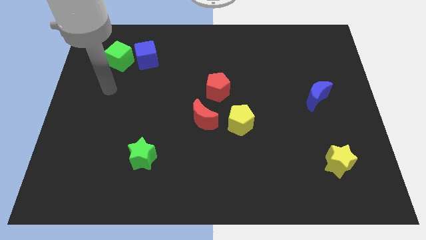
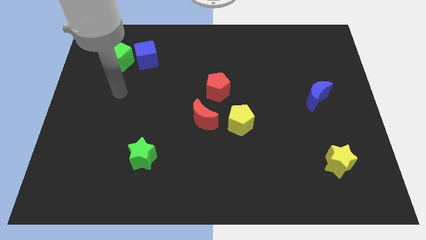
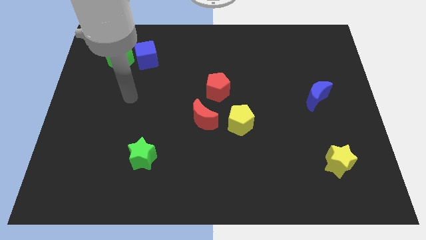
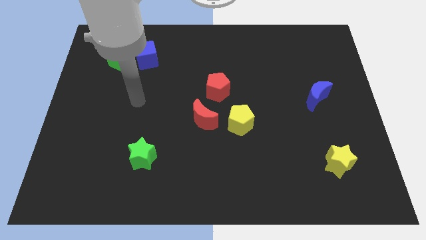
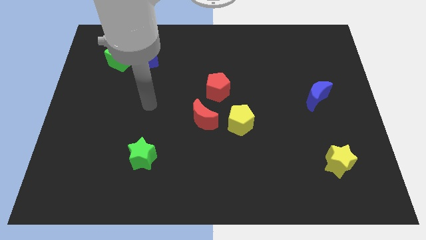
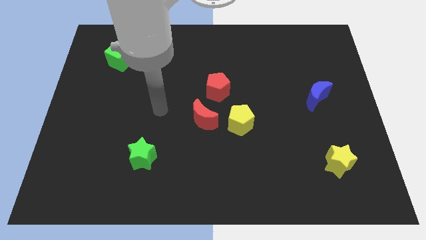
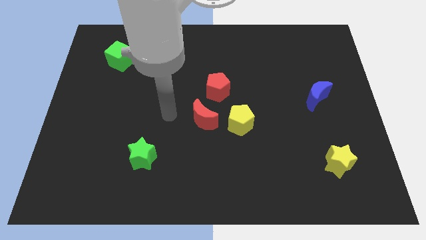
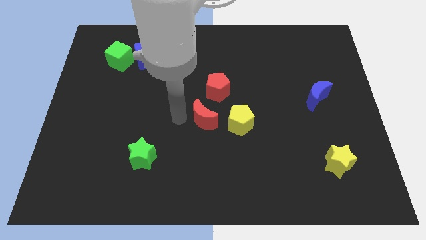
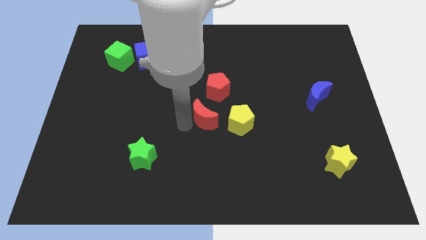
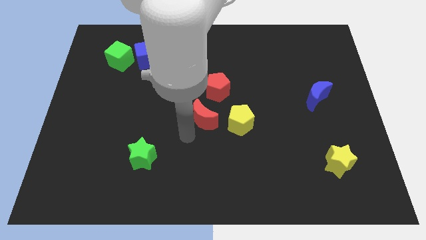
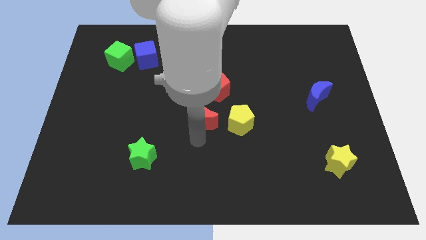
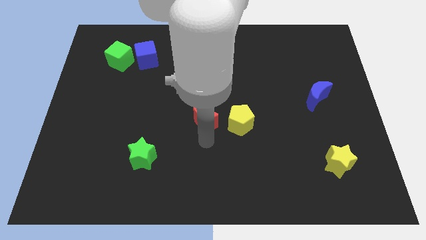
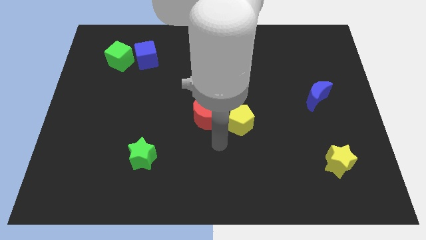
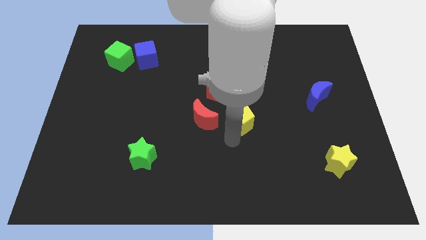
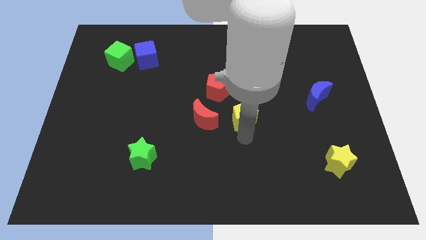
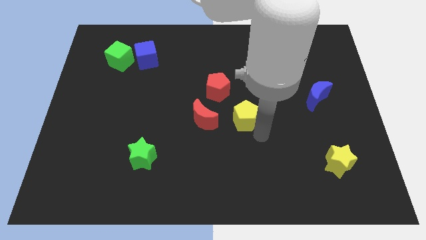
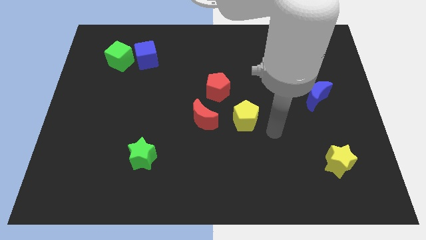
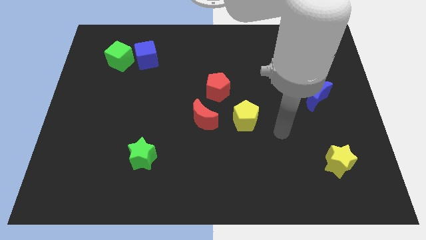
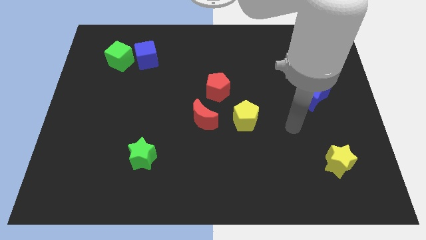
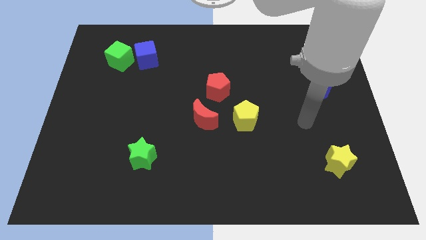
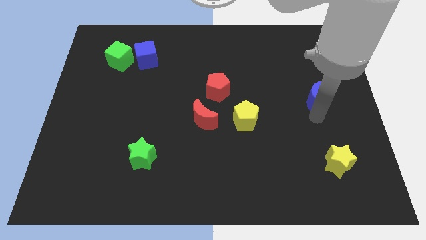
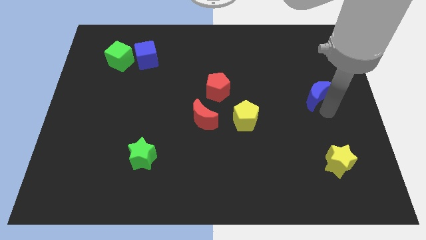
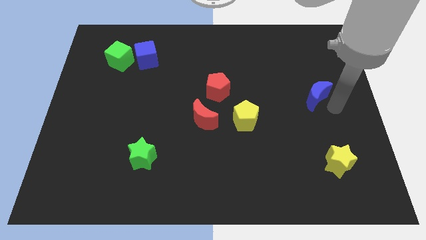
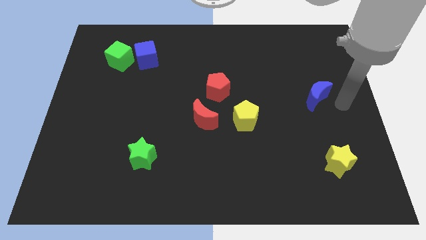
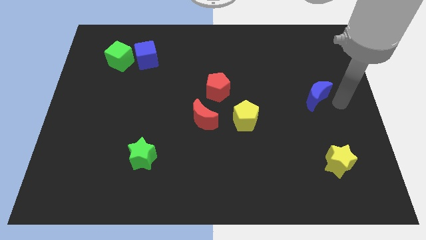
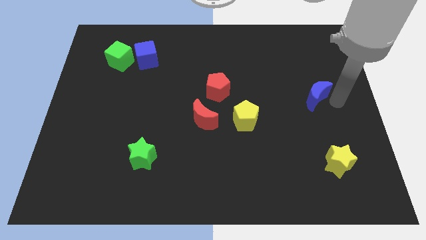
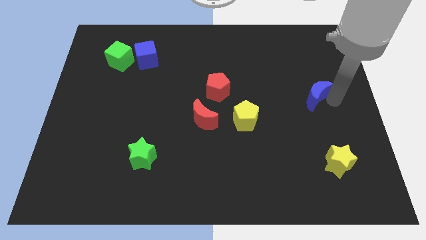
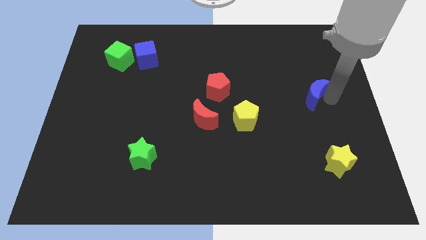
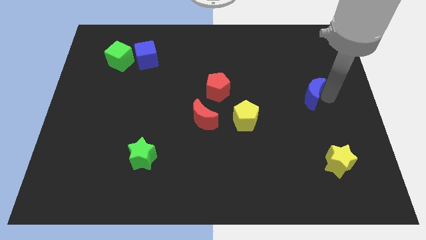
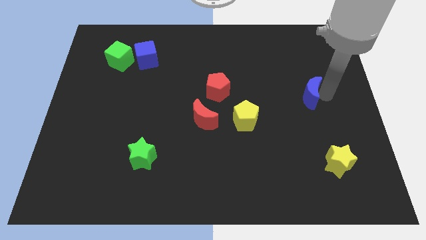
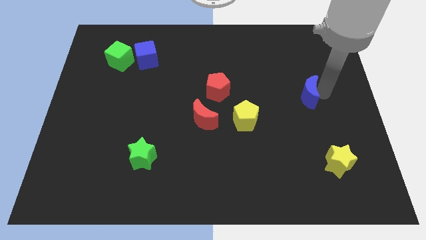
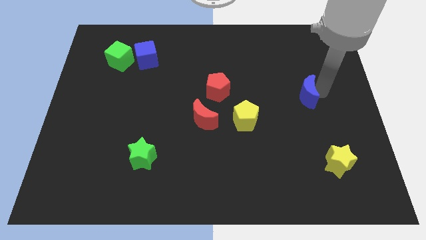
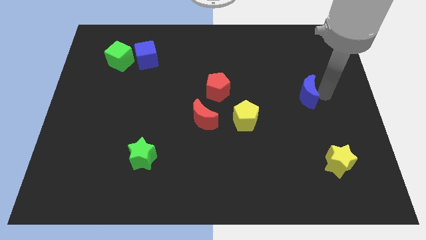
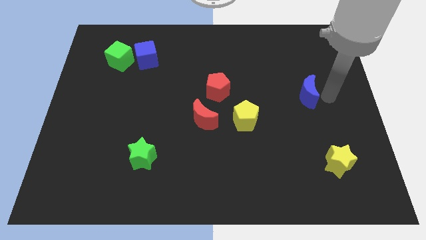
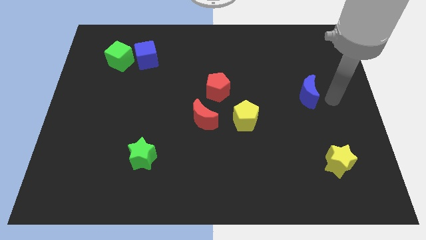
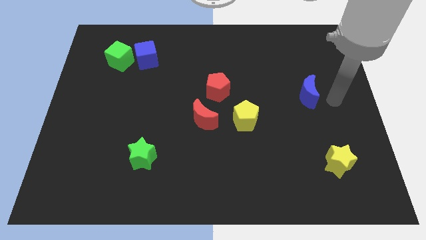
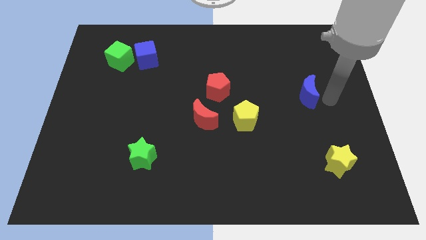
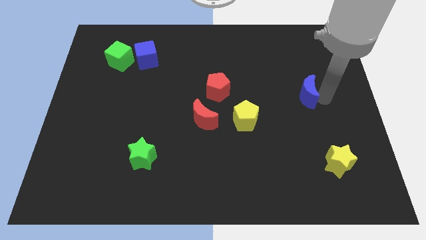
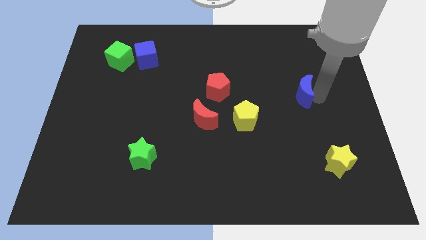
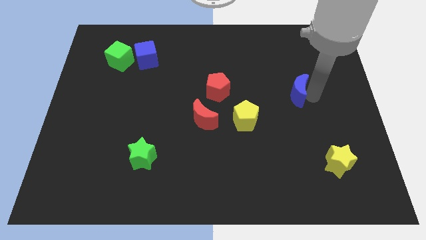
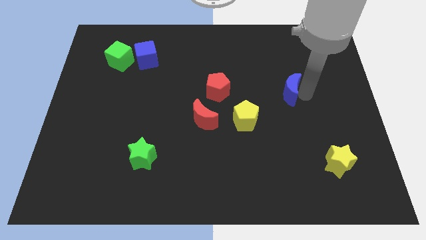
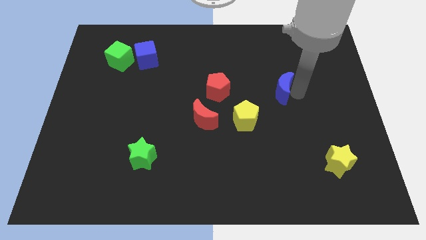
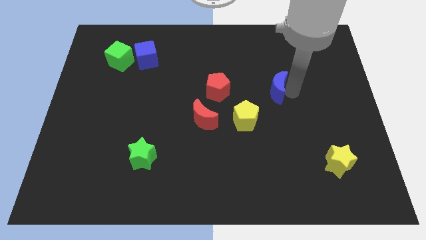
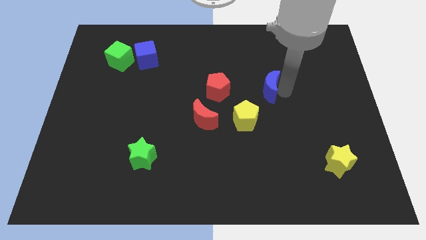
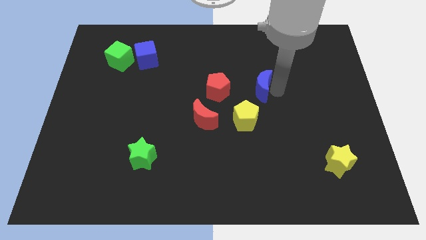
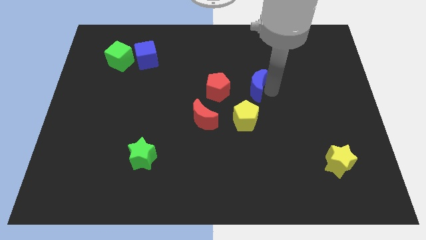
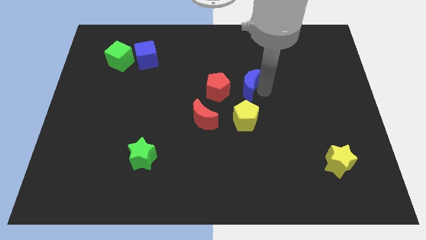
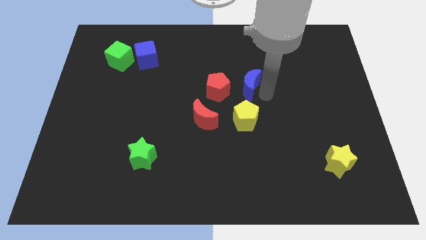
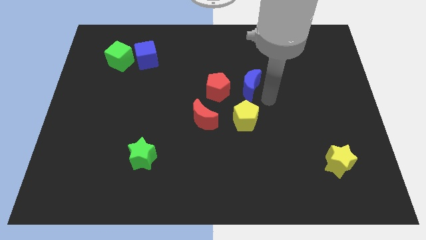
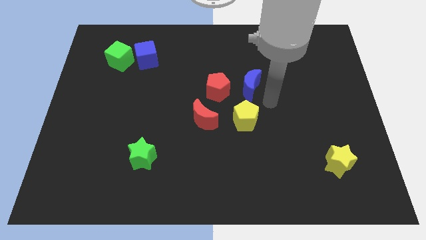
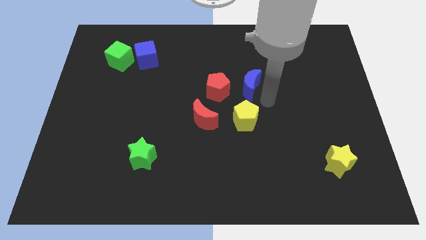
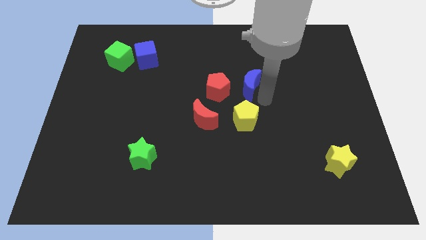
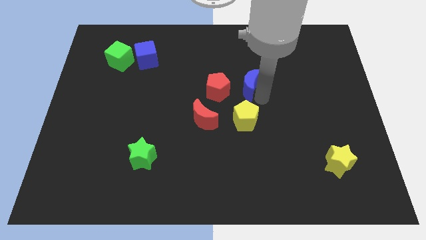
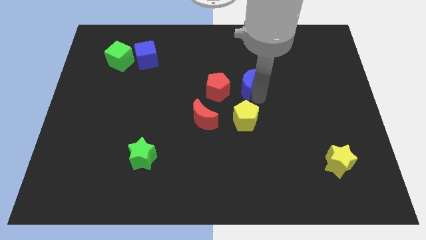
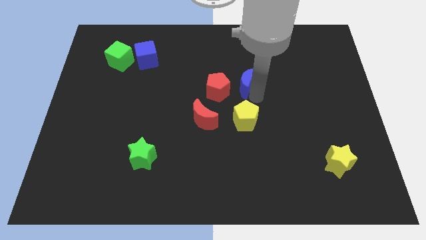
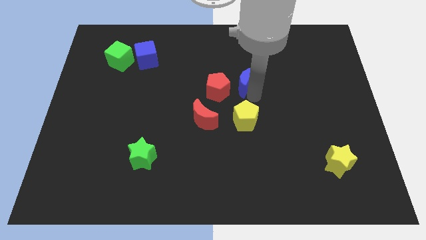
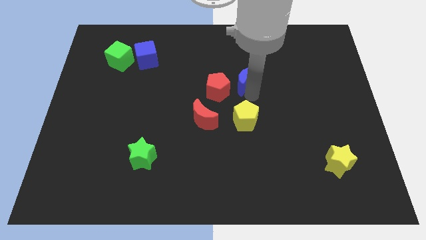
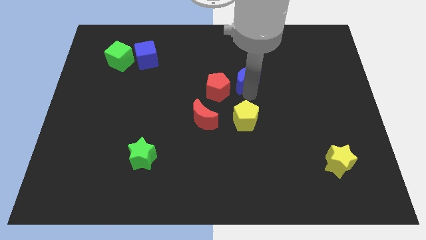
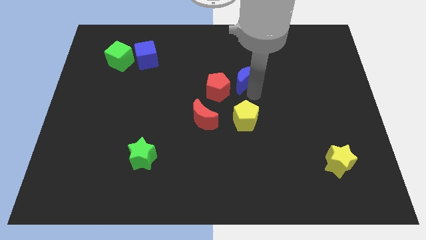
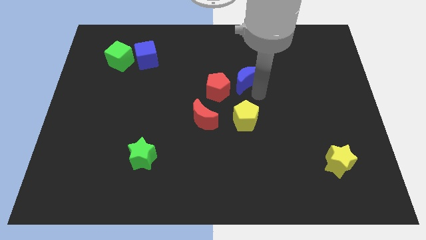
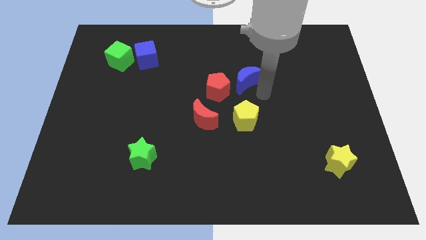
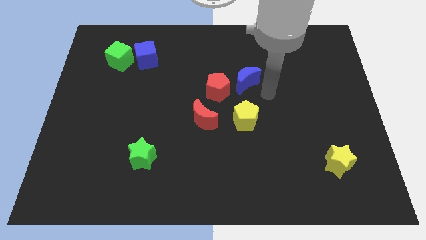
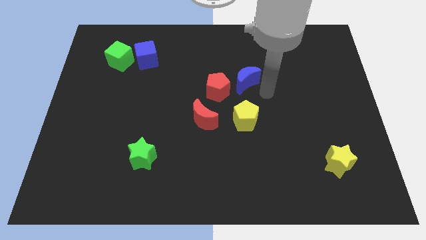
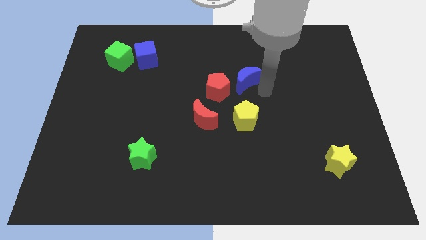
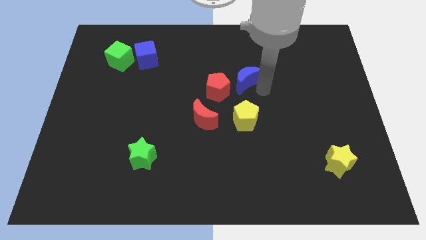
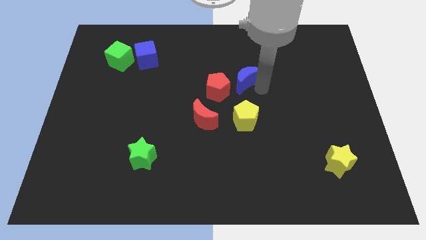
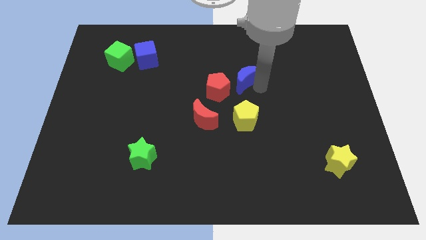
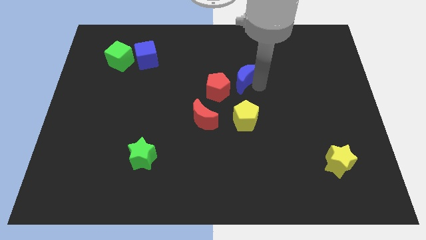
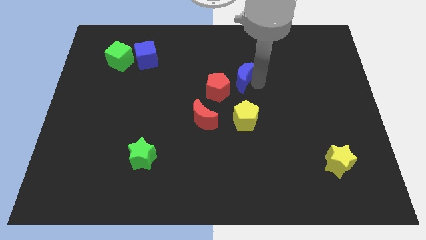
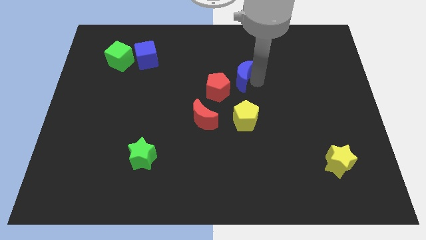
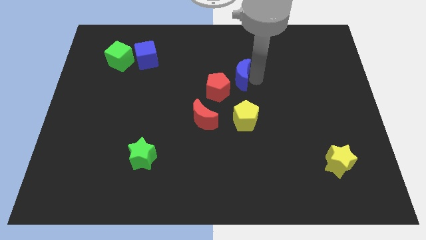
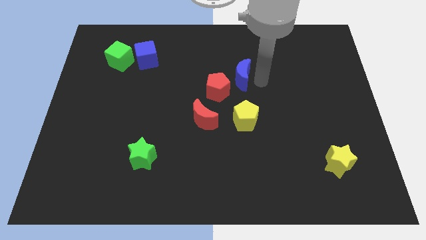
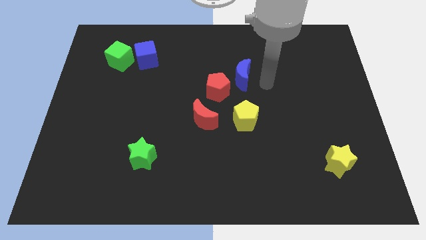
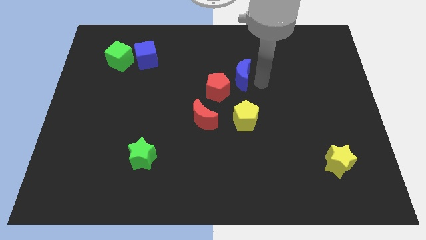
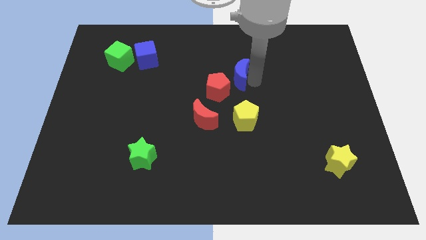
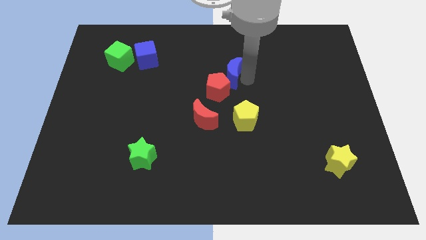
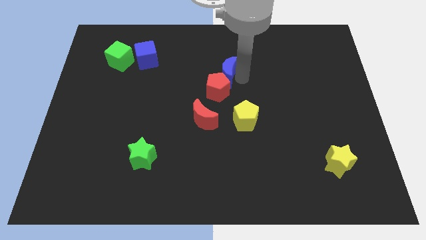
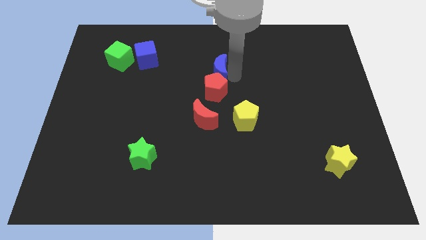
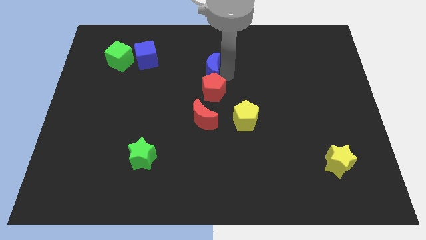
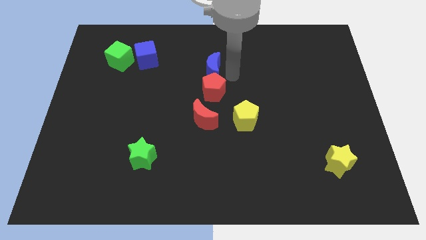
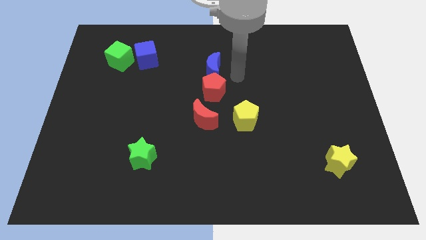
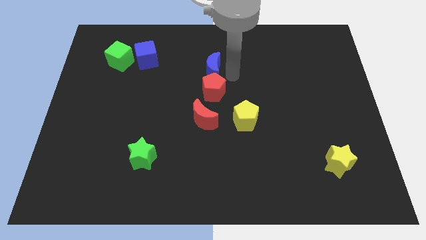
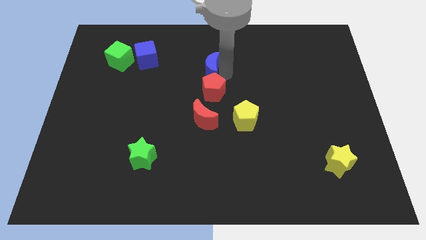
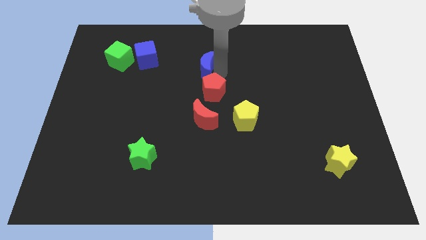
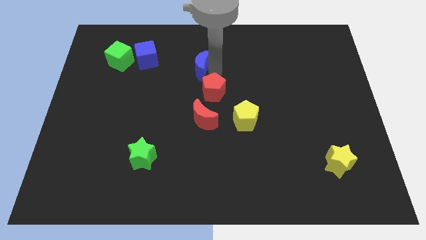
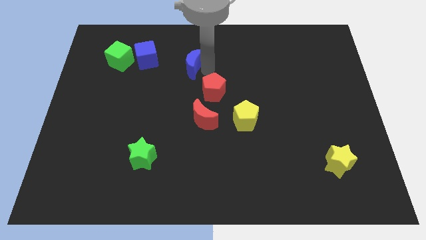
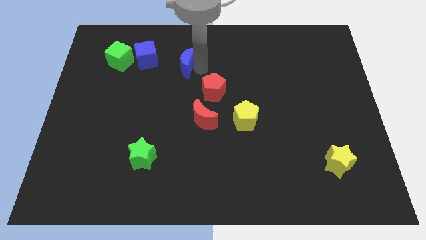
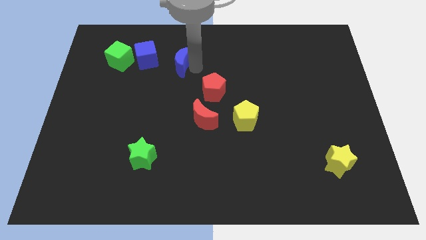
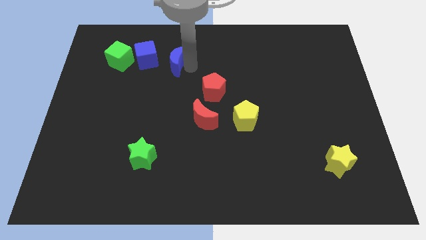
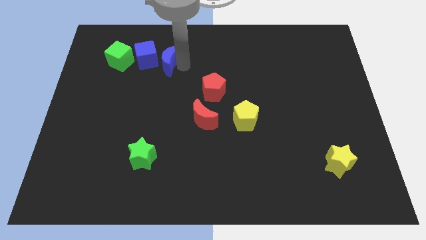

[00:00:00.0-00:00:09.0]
put the blue moon close to the blue cube
